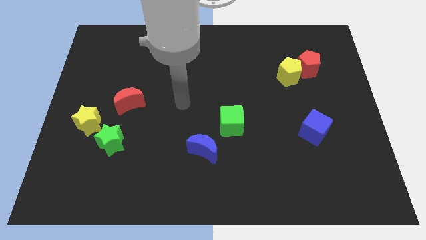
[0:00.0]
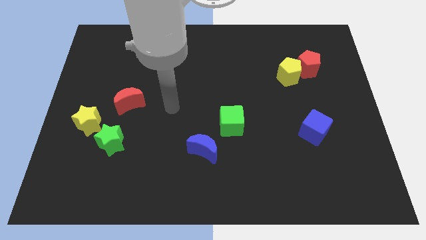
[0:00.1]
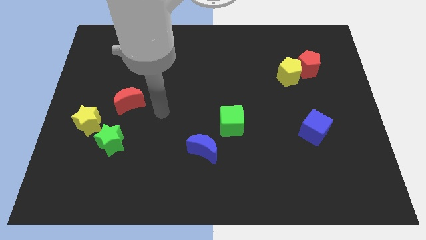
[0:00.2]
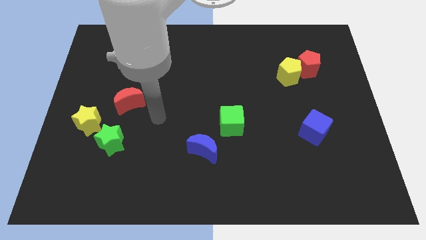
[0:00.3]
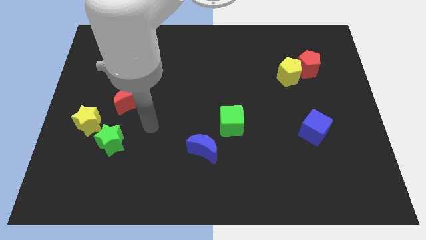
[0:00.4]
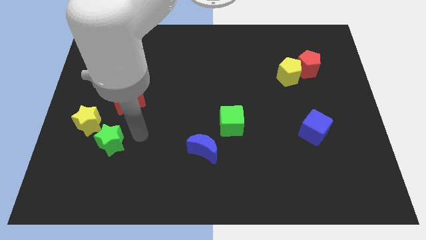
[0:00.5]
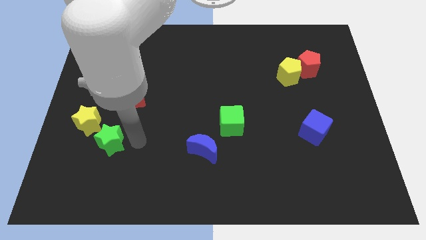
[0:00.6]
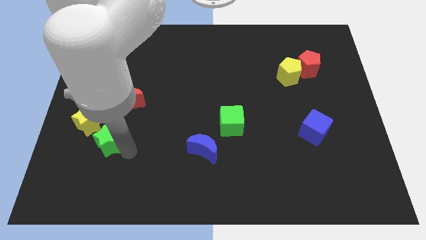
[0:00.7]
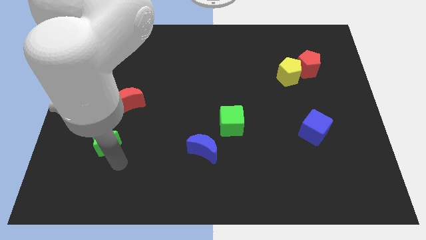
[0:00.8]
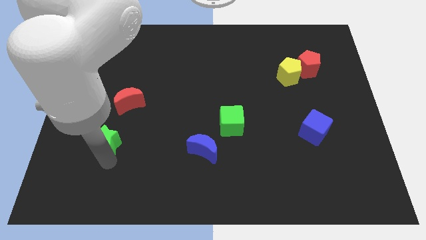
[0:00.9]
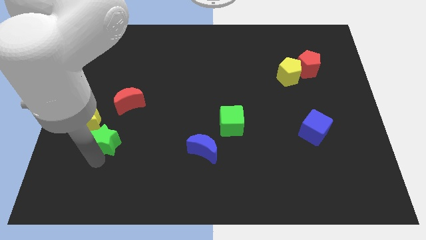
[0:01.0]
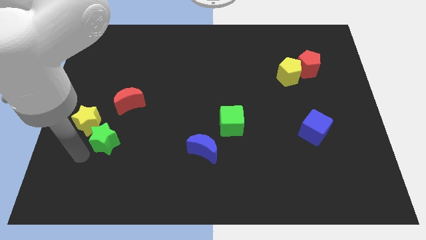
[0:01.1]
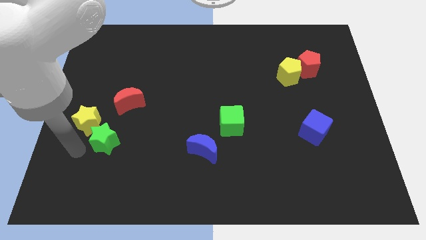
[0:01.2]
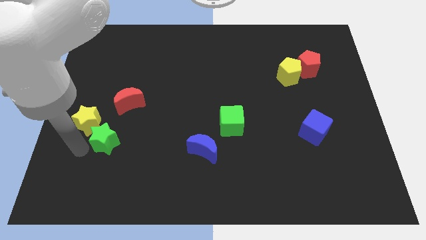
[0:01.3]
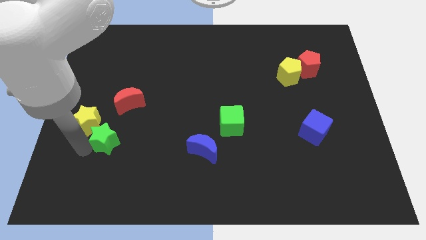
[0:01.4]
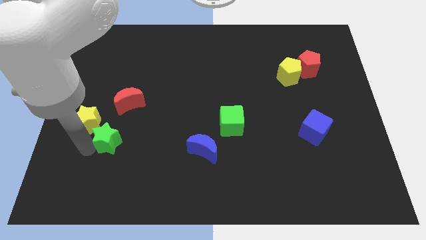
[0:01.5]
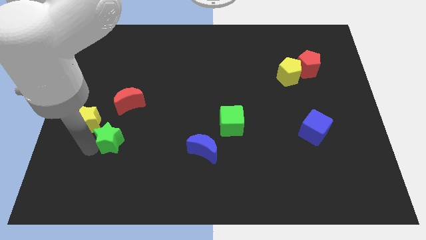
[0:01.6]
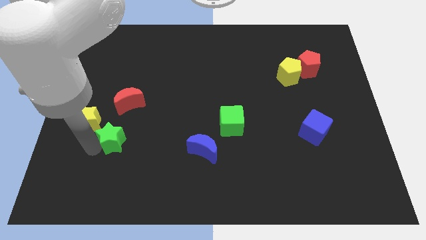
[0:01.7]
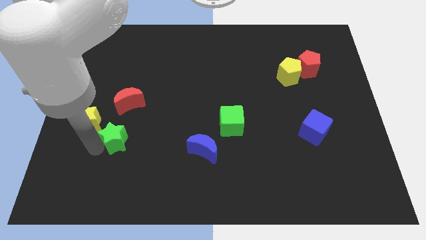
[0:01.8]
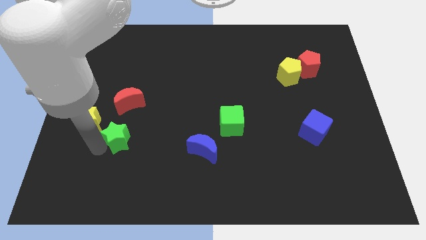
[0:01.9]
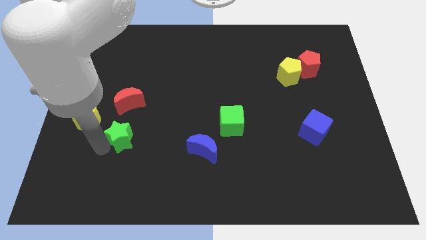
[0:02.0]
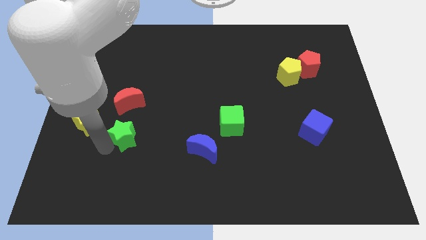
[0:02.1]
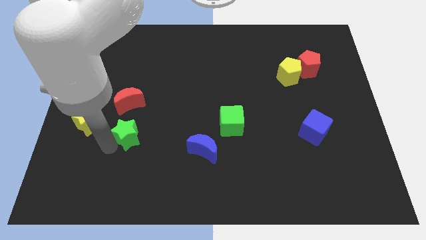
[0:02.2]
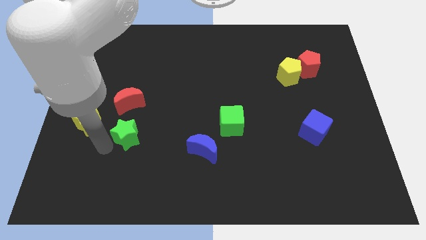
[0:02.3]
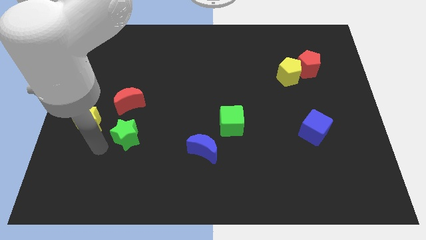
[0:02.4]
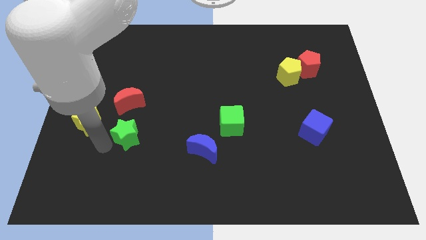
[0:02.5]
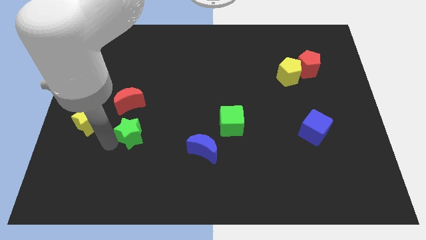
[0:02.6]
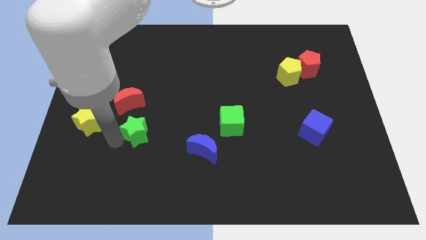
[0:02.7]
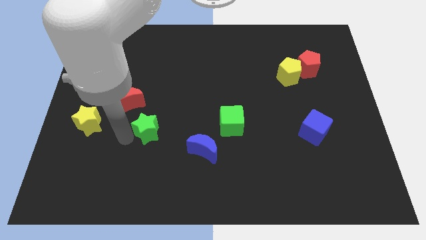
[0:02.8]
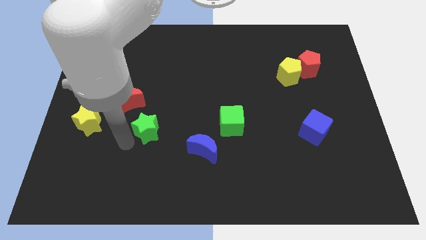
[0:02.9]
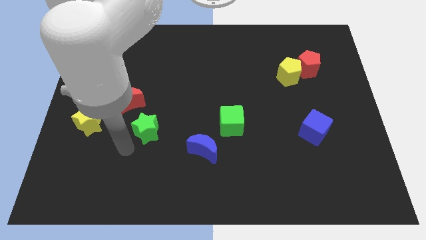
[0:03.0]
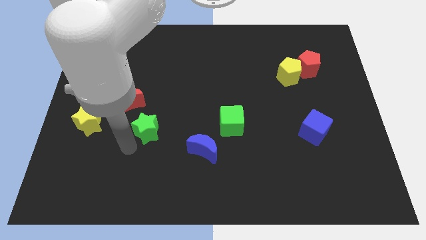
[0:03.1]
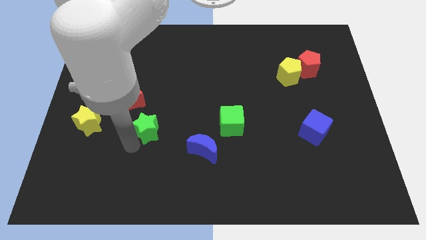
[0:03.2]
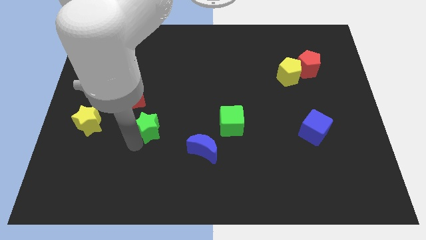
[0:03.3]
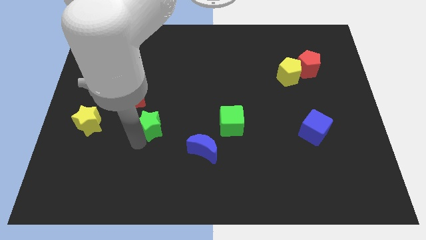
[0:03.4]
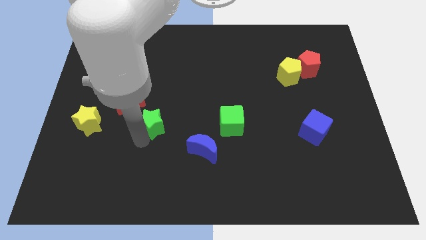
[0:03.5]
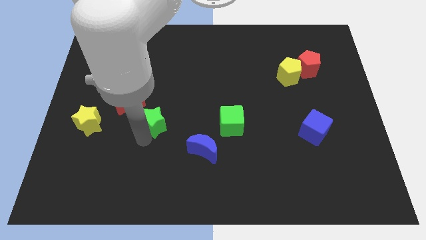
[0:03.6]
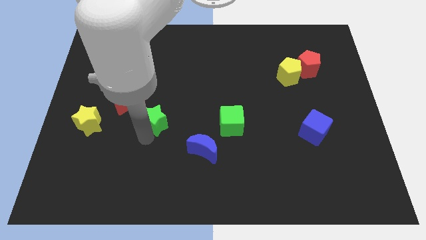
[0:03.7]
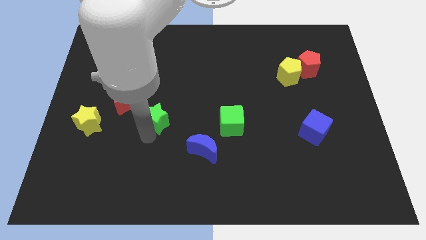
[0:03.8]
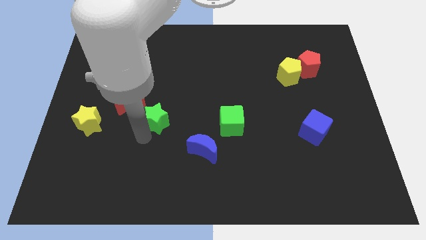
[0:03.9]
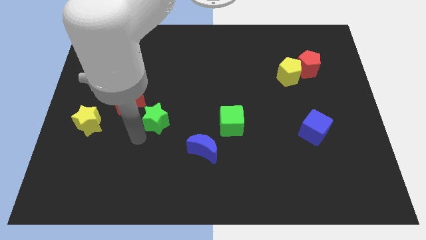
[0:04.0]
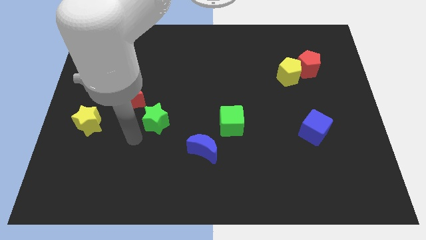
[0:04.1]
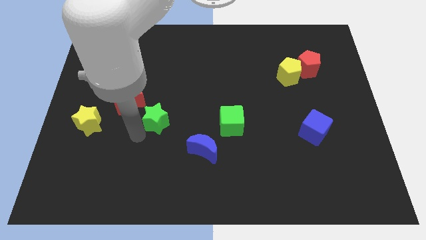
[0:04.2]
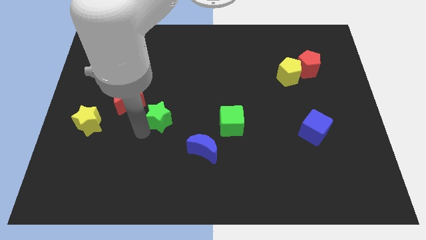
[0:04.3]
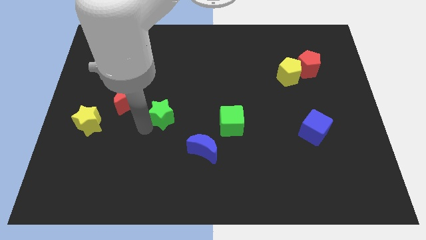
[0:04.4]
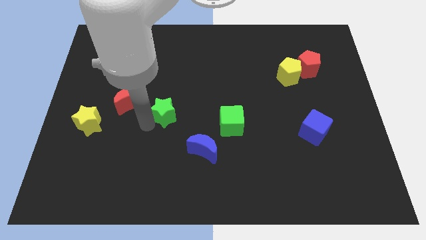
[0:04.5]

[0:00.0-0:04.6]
slide the green star to the middle of the board

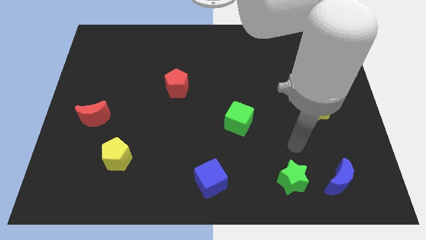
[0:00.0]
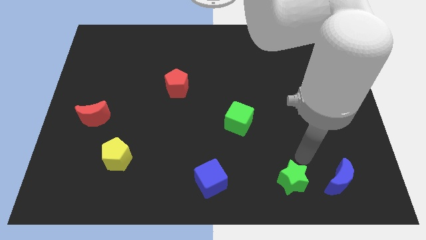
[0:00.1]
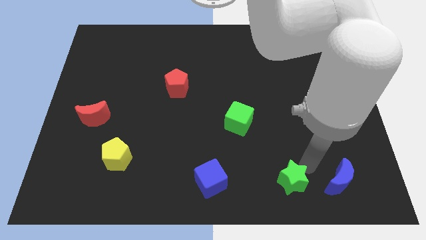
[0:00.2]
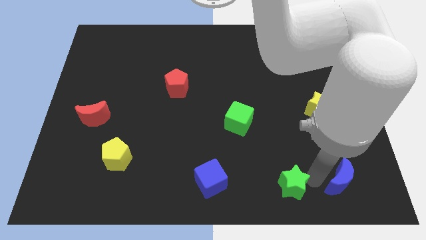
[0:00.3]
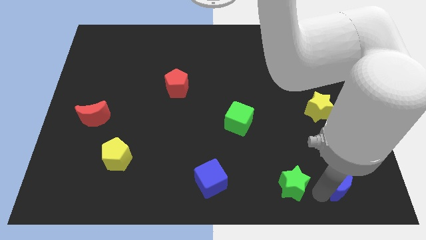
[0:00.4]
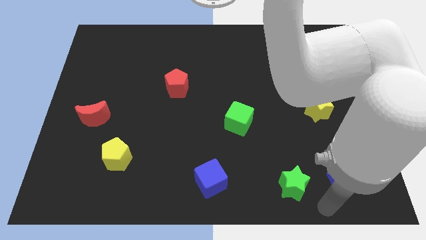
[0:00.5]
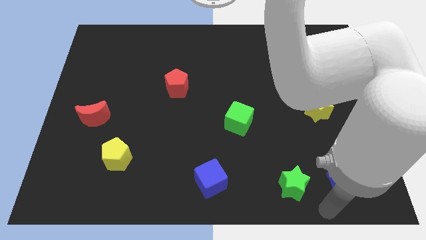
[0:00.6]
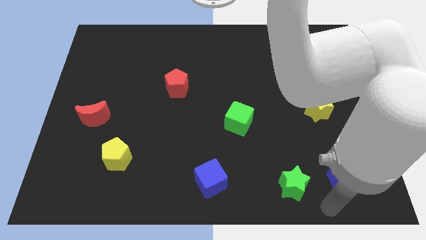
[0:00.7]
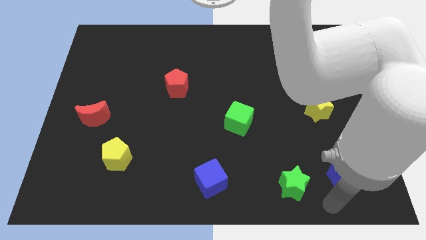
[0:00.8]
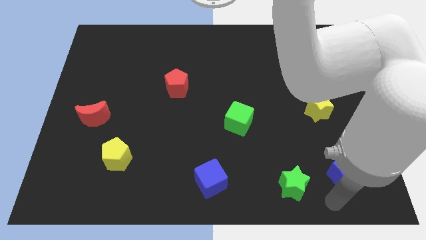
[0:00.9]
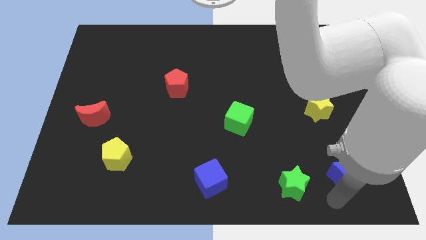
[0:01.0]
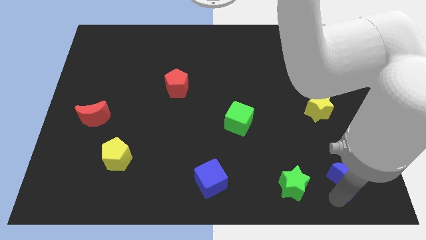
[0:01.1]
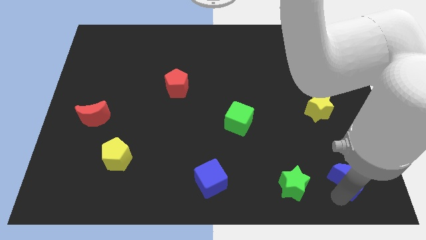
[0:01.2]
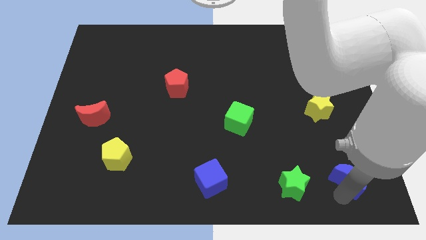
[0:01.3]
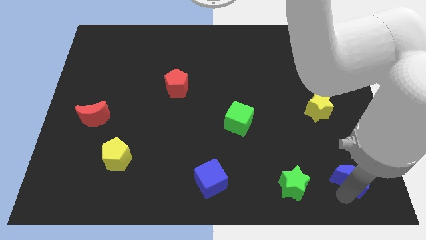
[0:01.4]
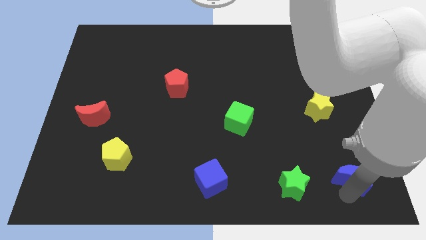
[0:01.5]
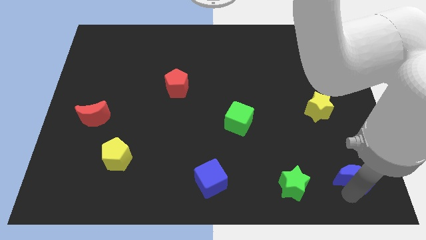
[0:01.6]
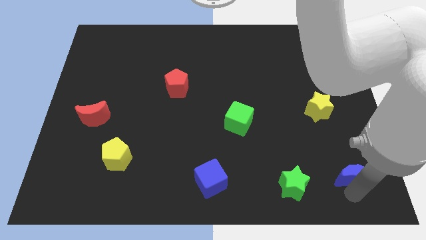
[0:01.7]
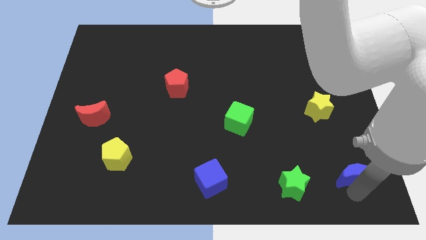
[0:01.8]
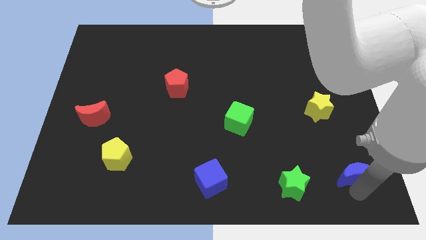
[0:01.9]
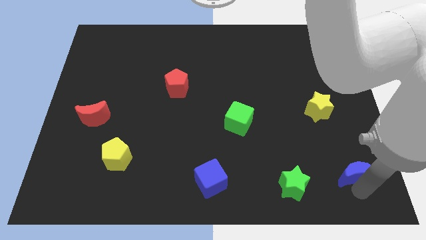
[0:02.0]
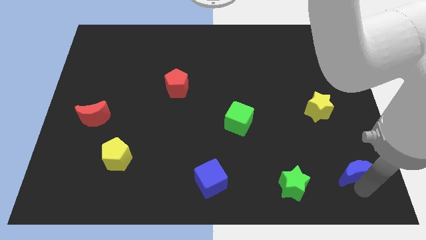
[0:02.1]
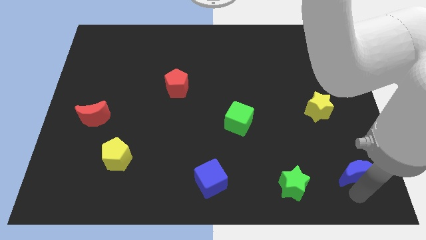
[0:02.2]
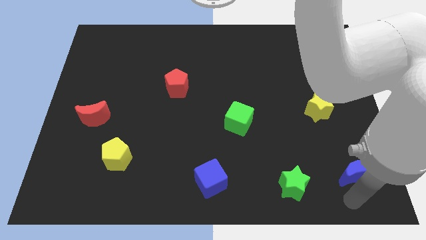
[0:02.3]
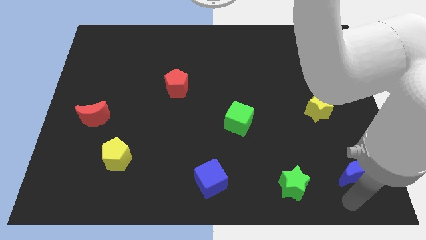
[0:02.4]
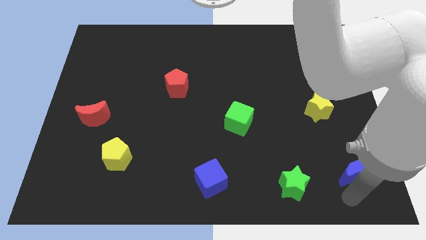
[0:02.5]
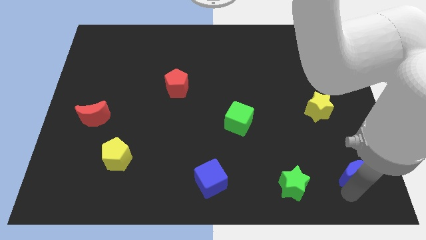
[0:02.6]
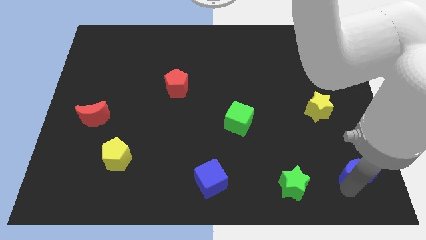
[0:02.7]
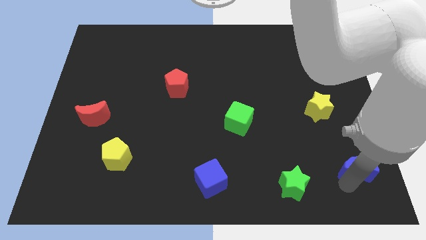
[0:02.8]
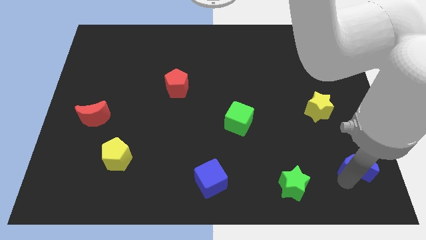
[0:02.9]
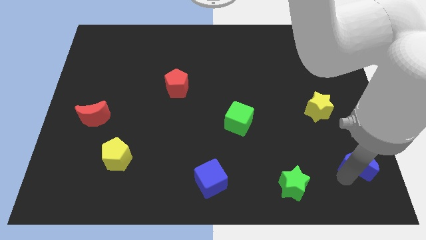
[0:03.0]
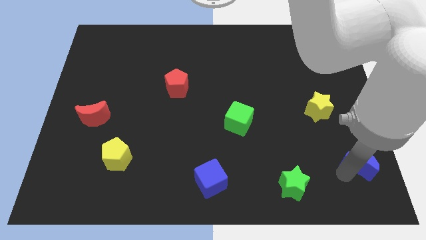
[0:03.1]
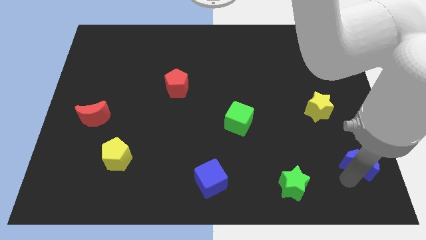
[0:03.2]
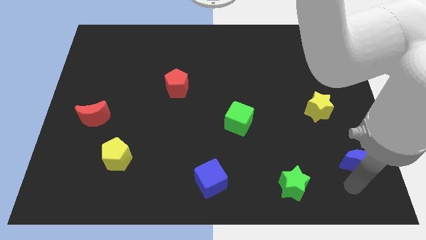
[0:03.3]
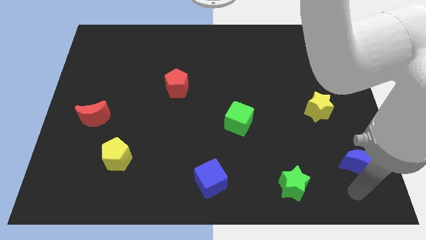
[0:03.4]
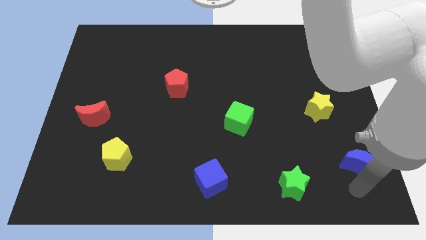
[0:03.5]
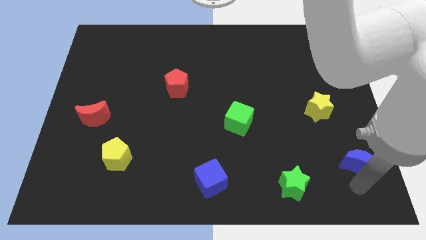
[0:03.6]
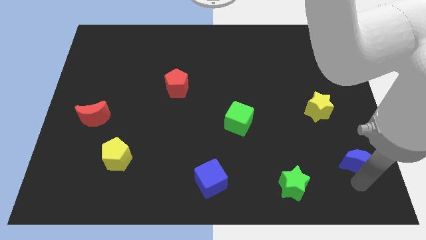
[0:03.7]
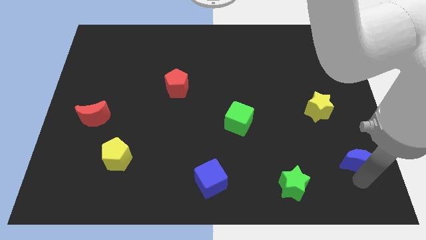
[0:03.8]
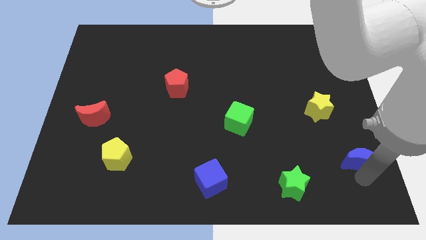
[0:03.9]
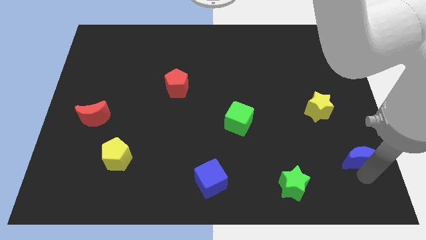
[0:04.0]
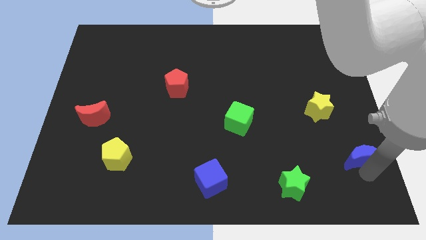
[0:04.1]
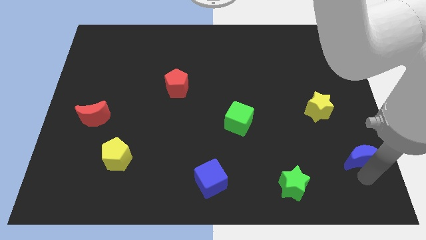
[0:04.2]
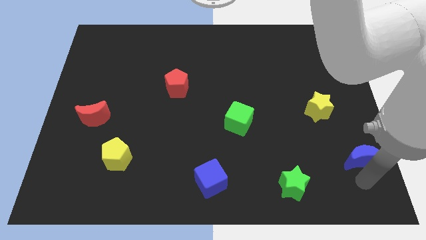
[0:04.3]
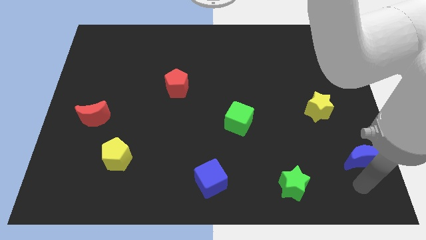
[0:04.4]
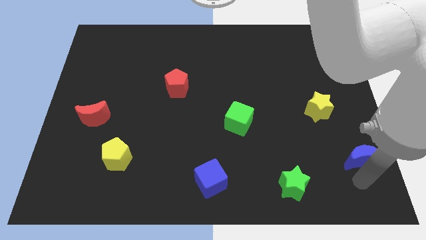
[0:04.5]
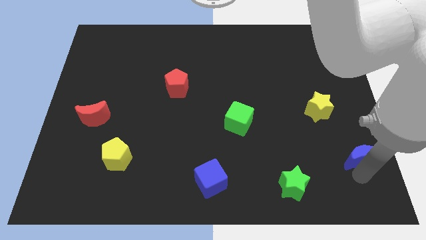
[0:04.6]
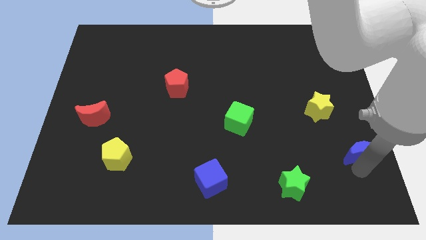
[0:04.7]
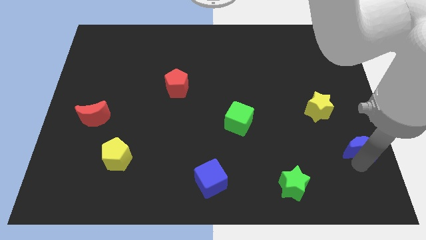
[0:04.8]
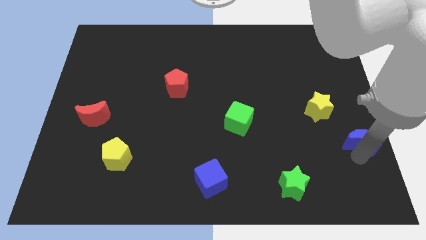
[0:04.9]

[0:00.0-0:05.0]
slide the blue moon to the right side
